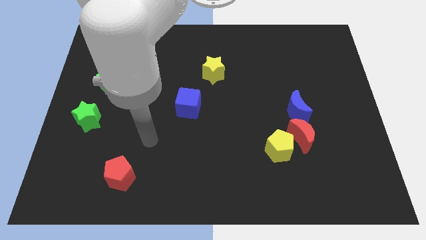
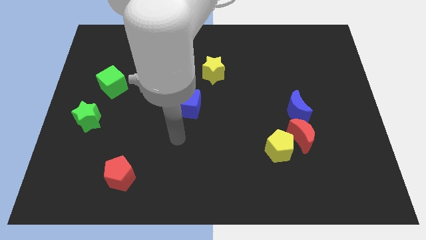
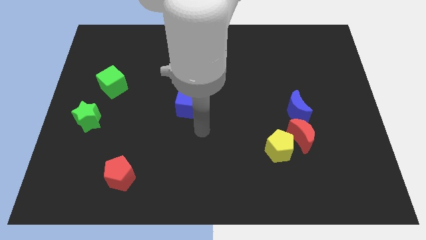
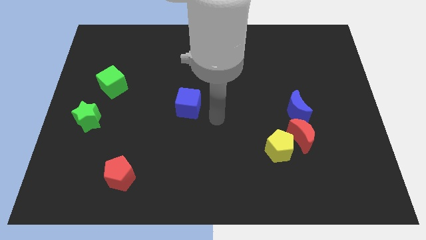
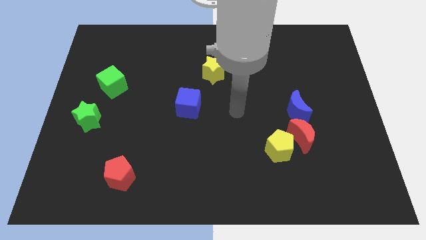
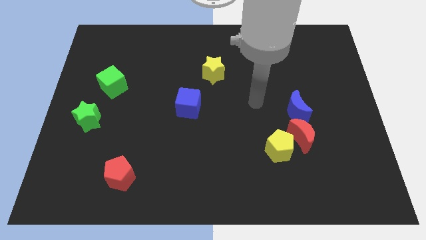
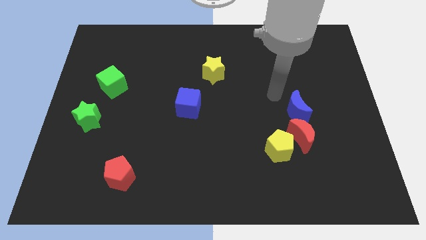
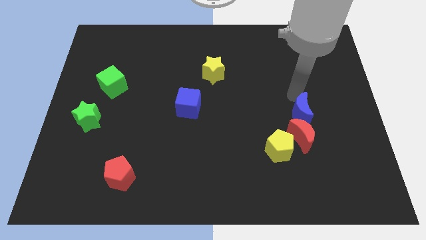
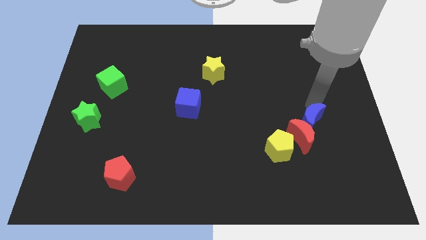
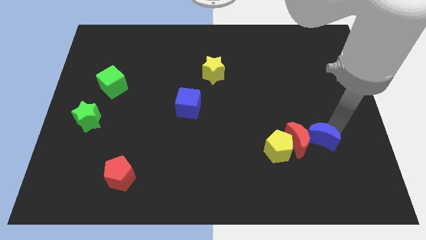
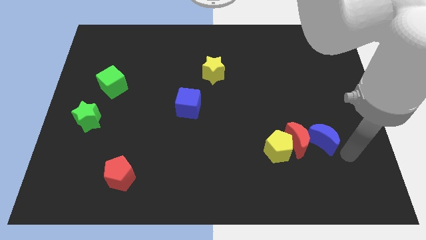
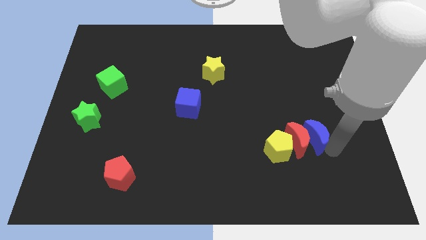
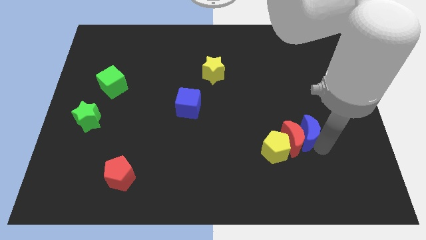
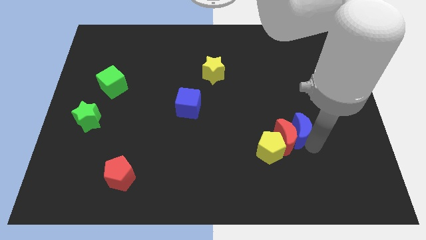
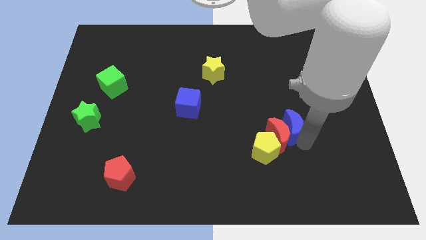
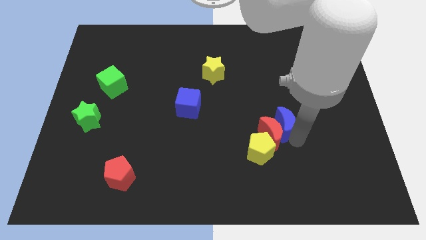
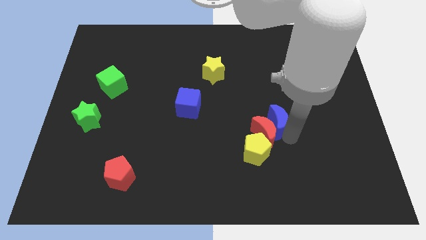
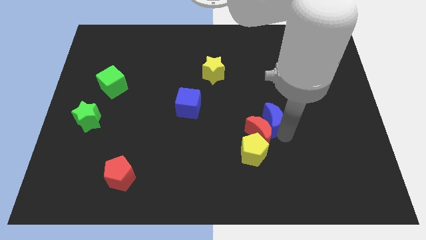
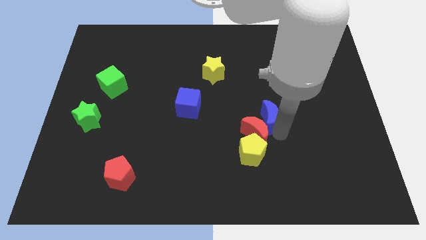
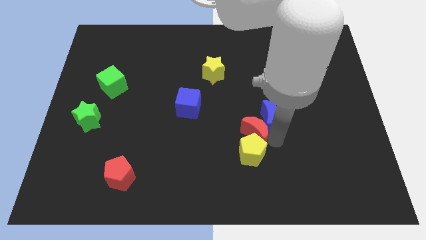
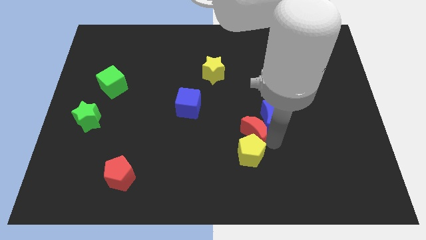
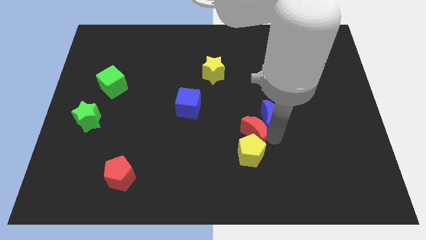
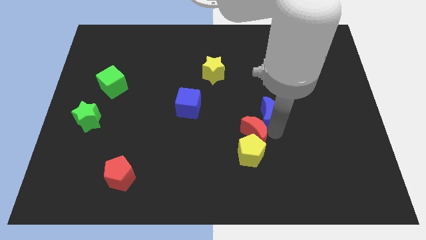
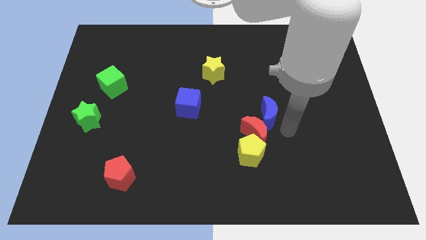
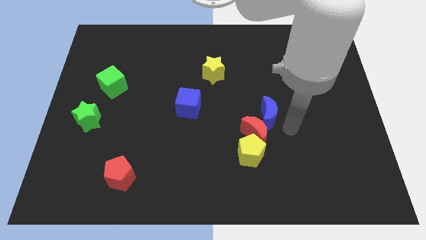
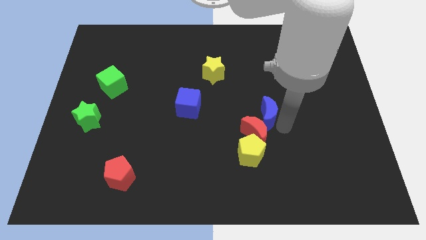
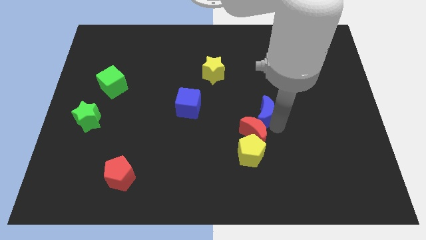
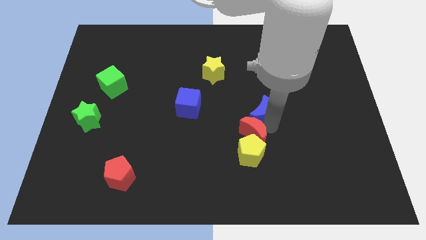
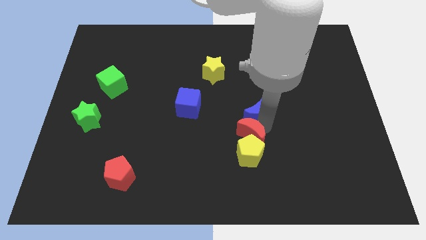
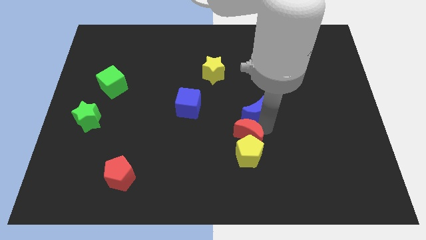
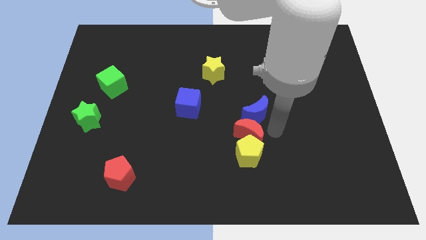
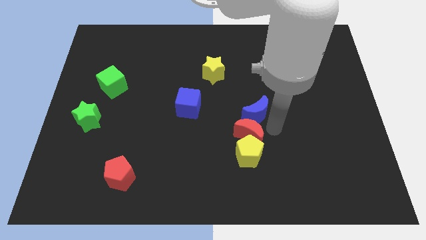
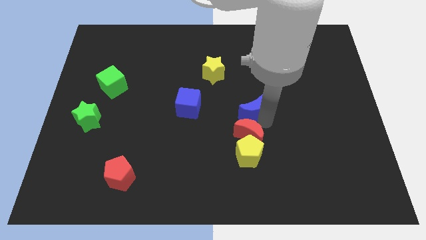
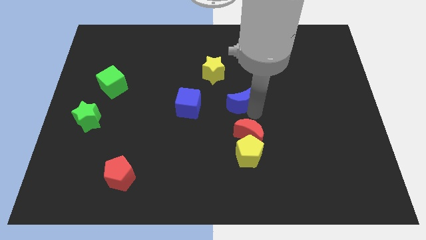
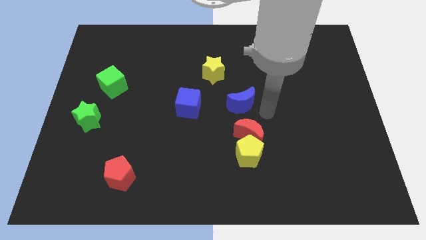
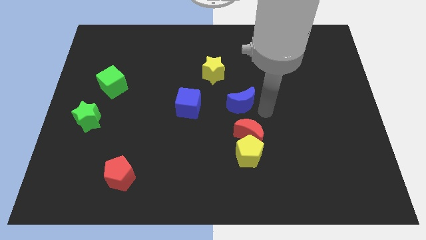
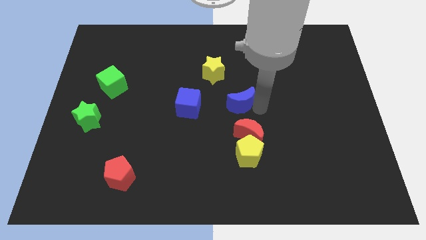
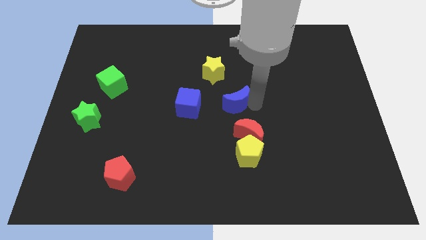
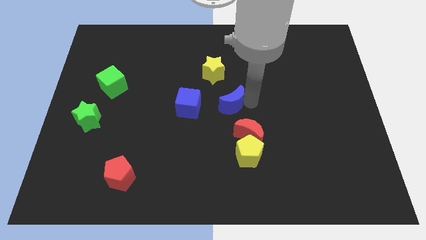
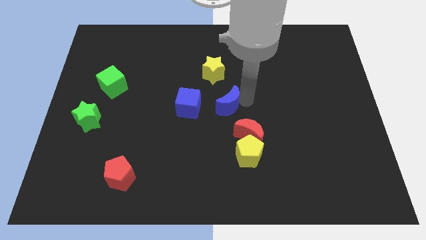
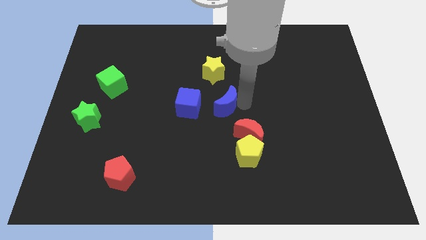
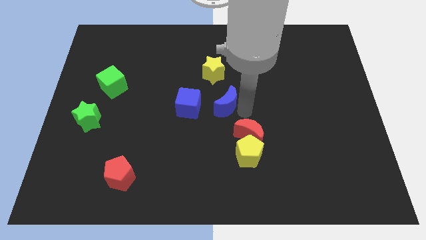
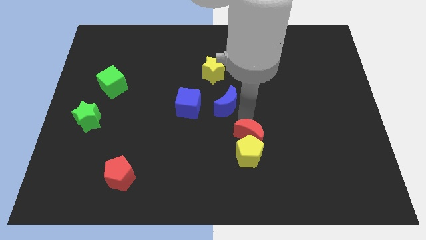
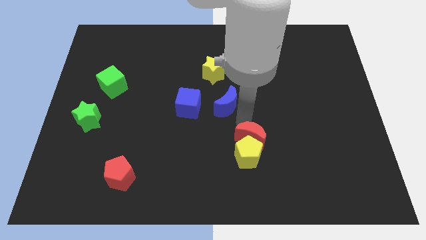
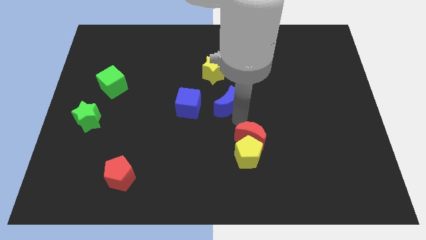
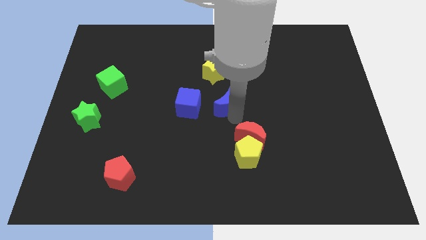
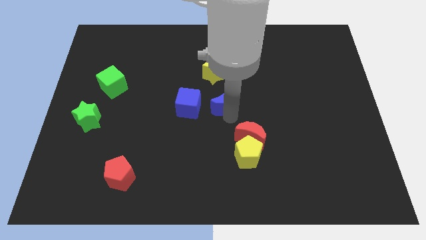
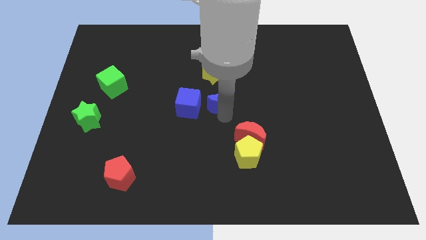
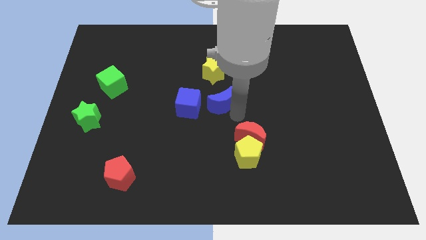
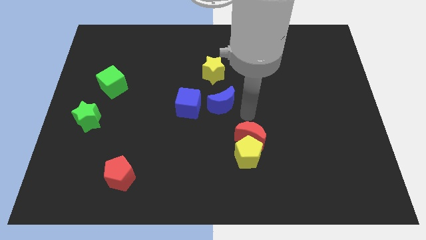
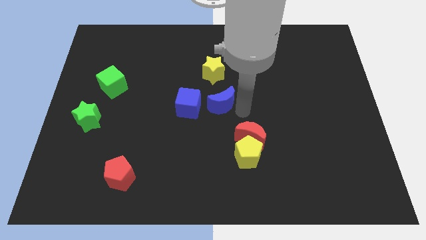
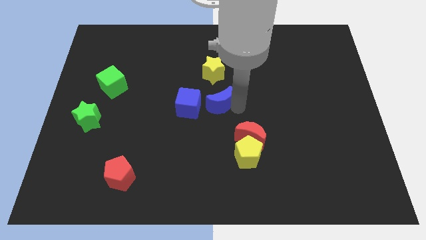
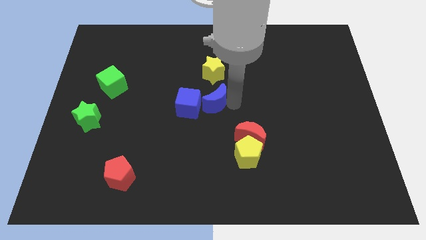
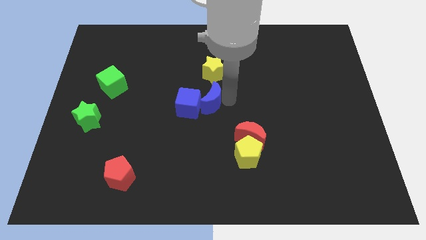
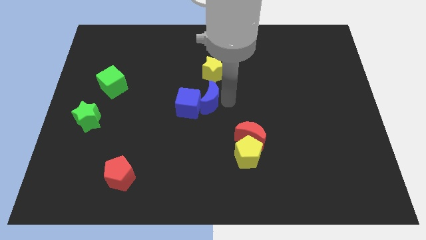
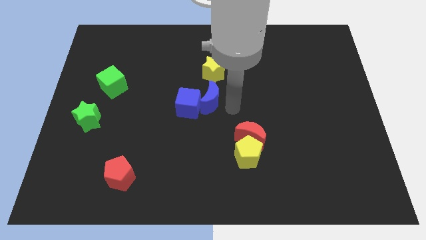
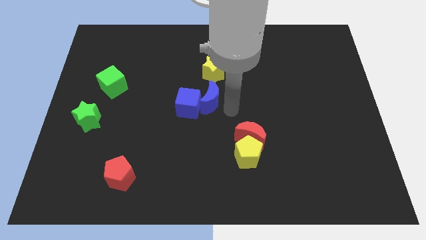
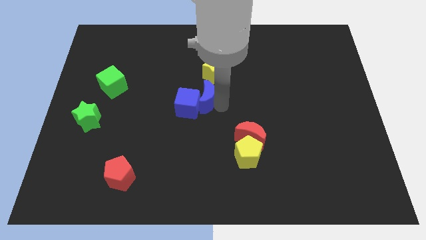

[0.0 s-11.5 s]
move the blue moon to the left

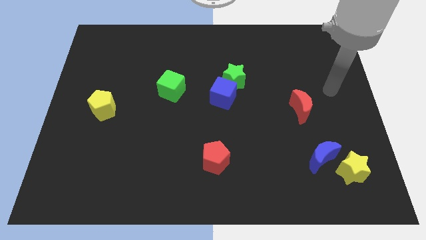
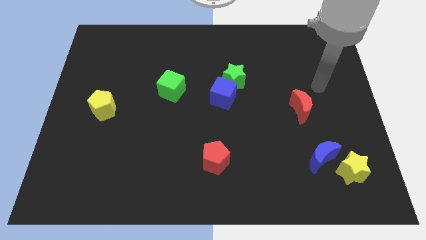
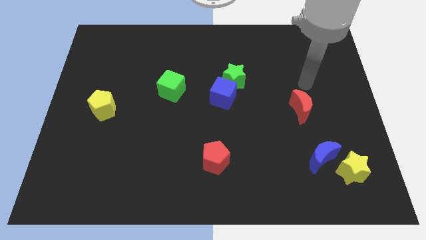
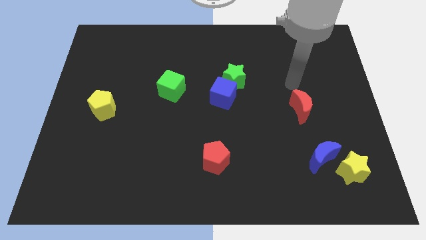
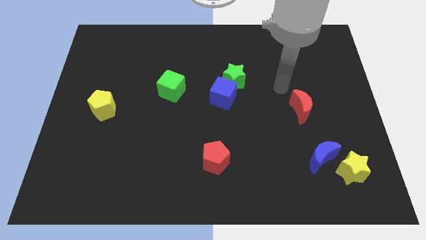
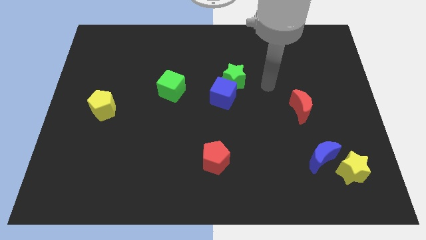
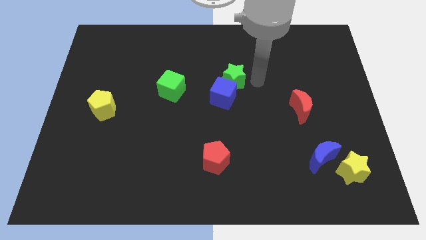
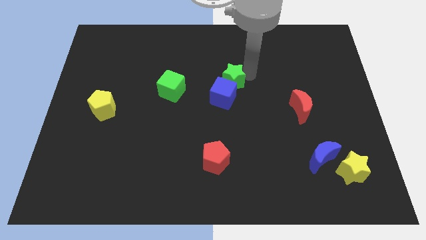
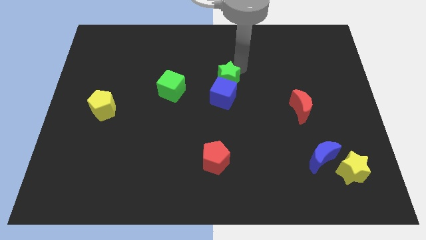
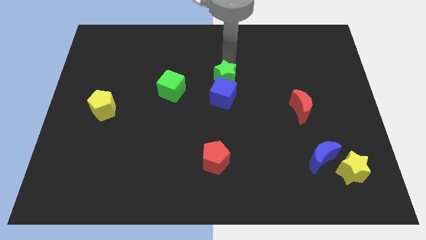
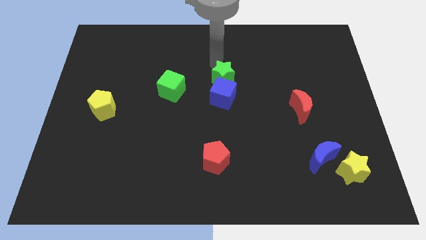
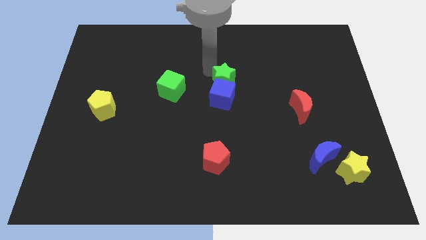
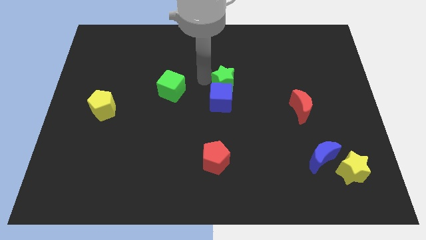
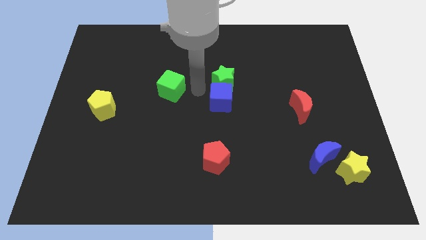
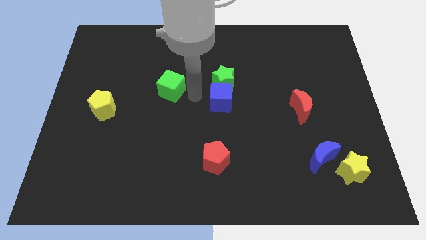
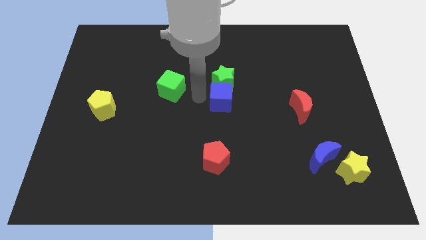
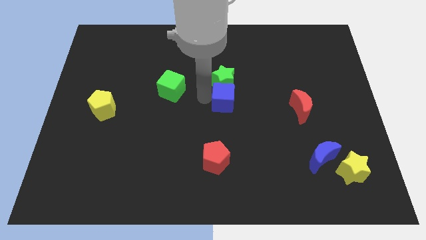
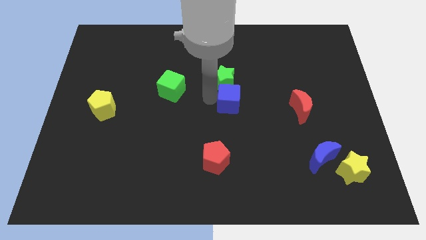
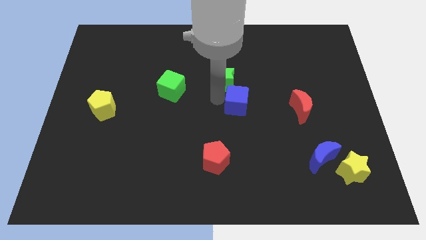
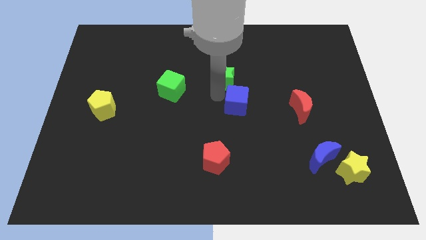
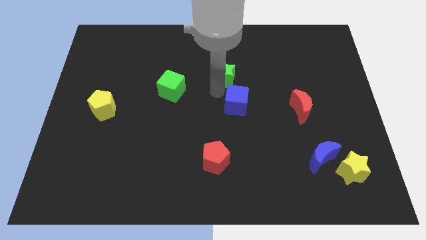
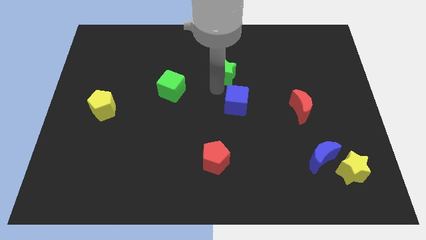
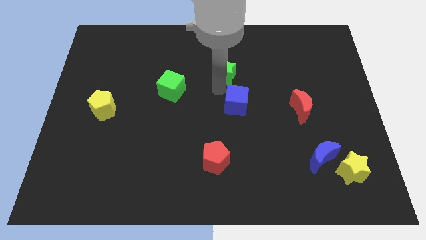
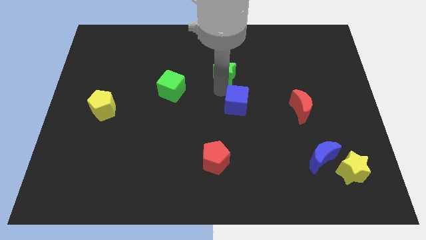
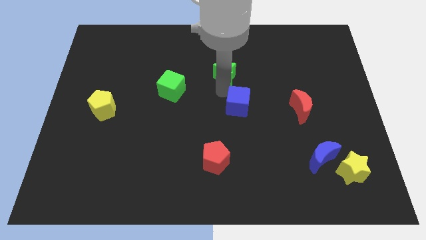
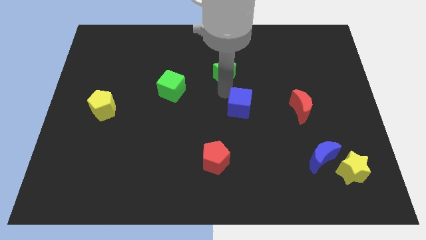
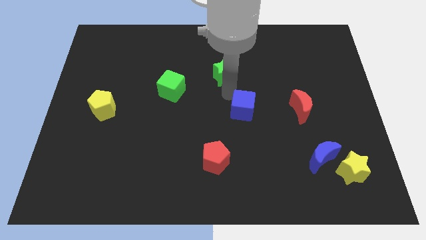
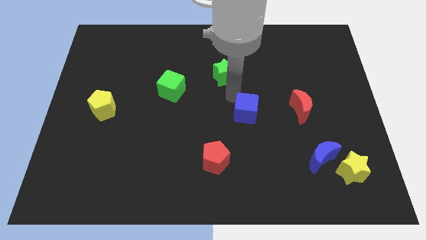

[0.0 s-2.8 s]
slightly push the blue cube downwards and right
